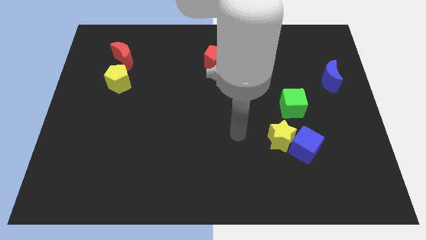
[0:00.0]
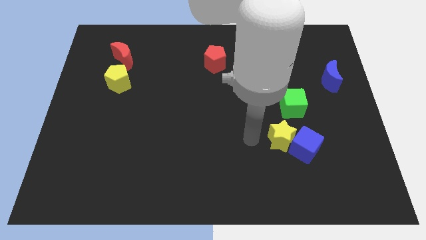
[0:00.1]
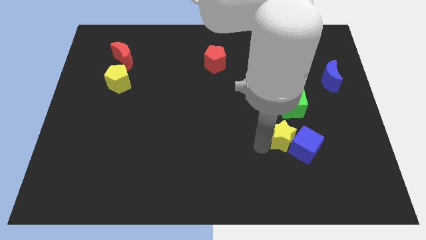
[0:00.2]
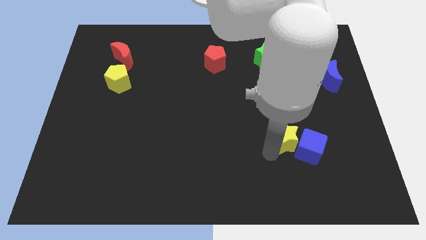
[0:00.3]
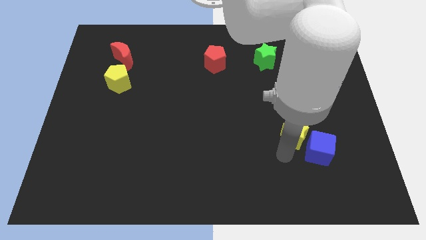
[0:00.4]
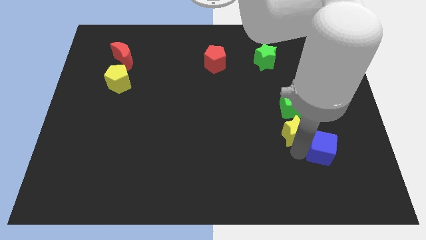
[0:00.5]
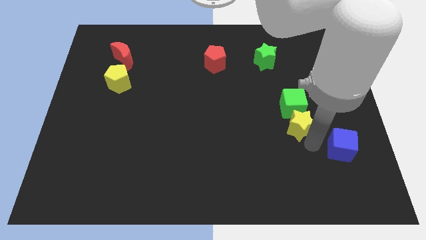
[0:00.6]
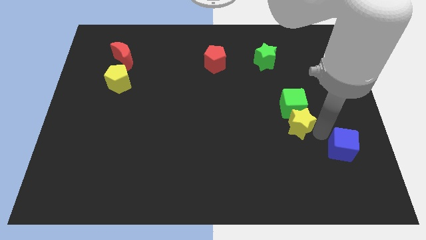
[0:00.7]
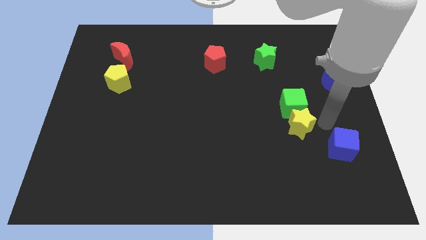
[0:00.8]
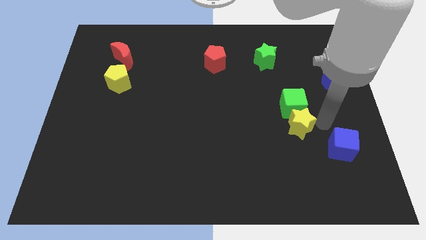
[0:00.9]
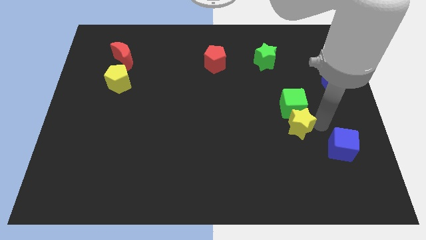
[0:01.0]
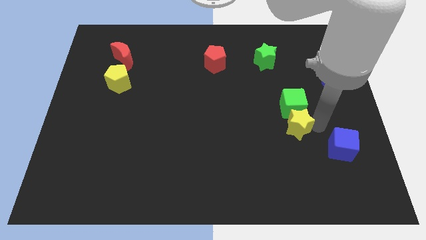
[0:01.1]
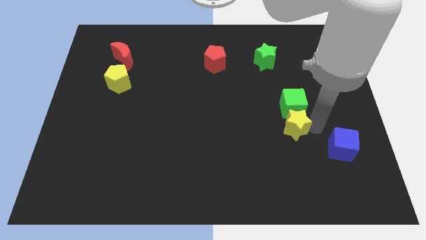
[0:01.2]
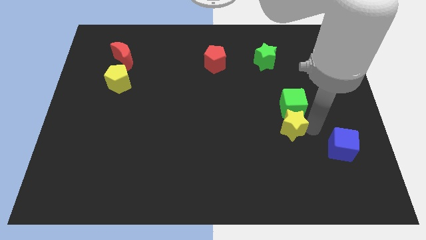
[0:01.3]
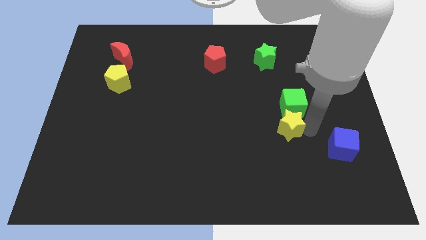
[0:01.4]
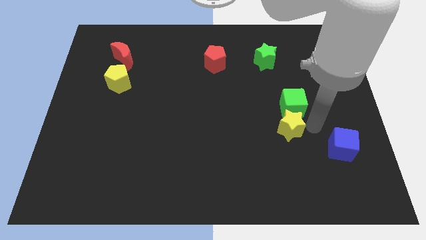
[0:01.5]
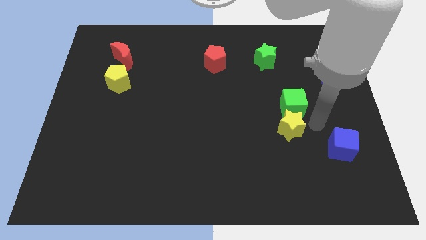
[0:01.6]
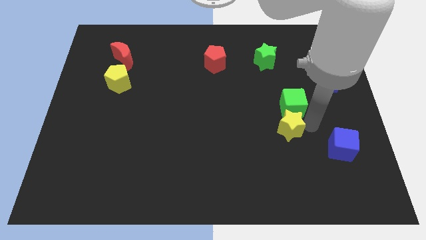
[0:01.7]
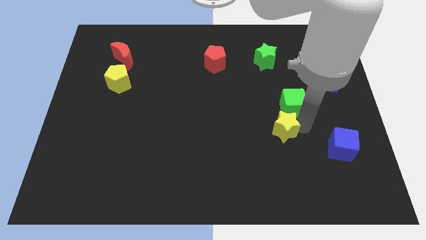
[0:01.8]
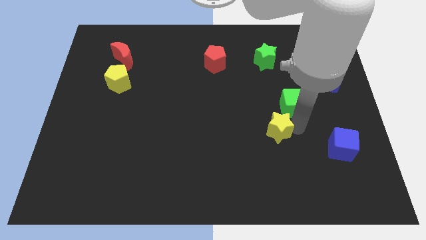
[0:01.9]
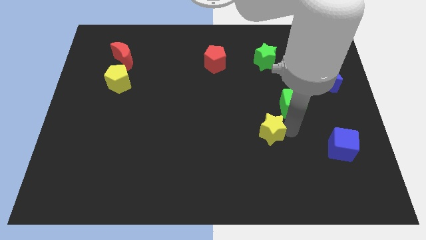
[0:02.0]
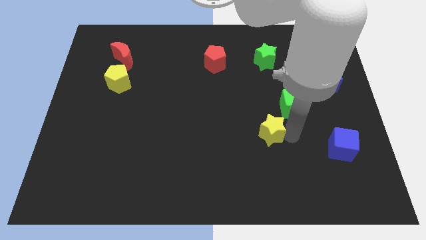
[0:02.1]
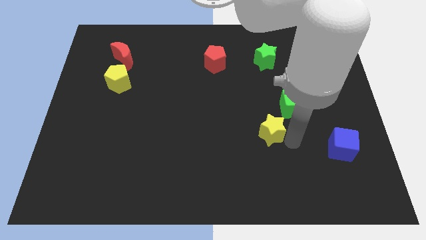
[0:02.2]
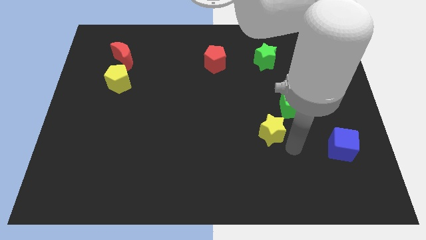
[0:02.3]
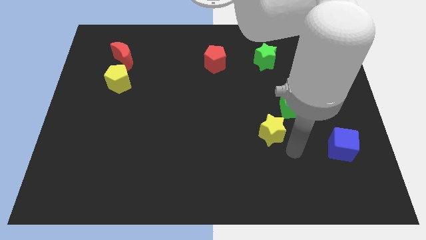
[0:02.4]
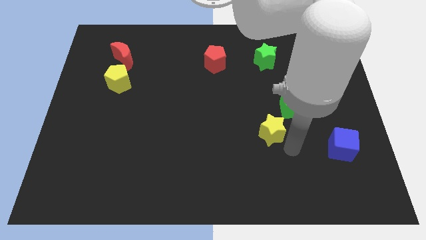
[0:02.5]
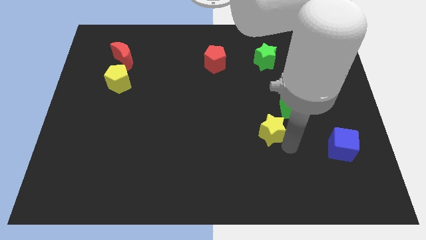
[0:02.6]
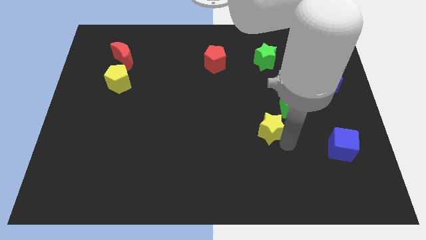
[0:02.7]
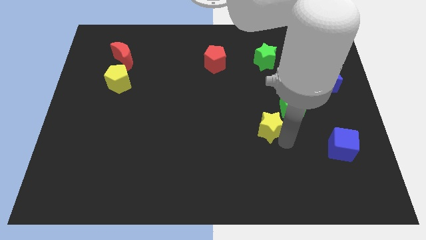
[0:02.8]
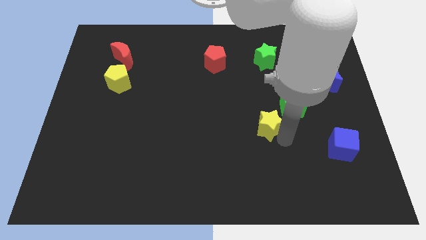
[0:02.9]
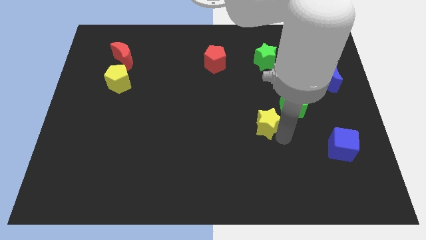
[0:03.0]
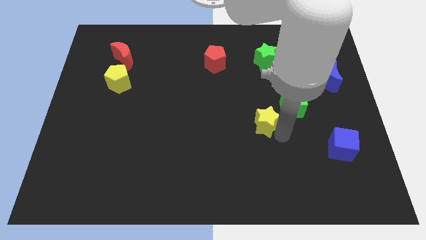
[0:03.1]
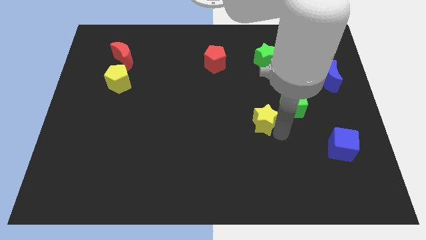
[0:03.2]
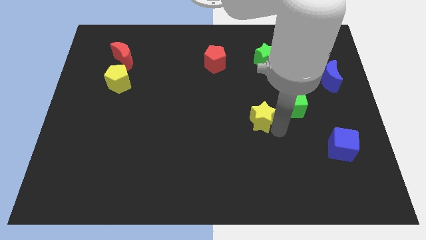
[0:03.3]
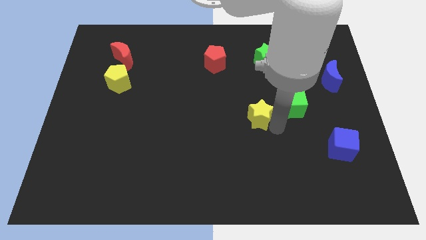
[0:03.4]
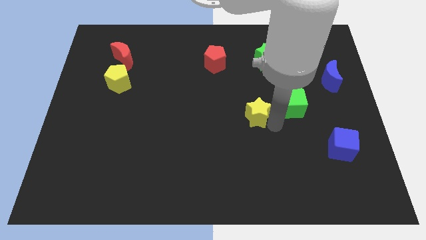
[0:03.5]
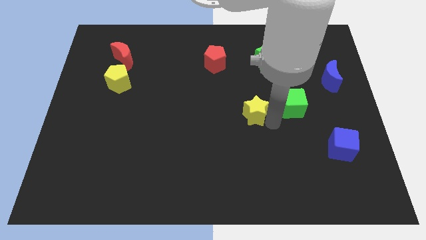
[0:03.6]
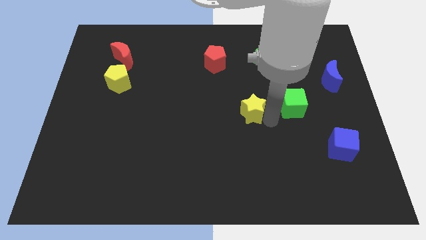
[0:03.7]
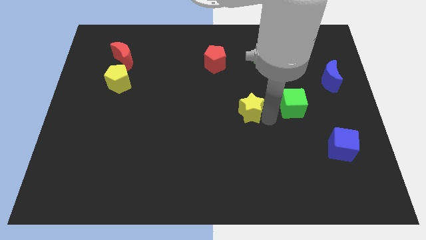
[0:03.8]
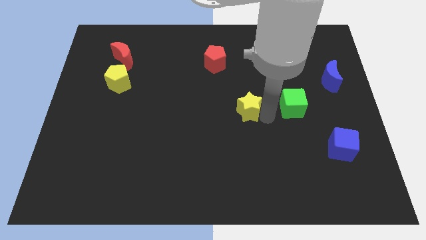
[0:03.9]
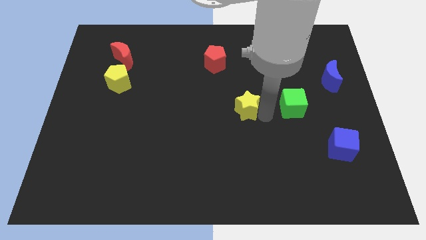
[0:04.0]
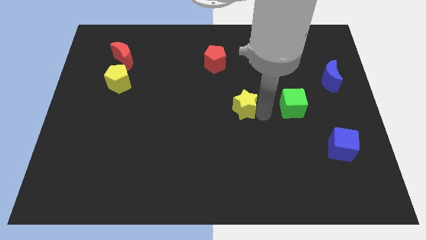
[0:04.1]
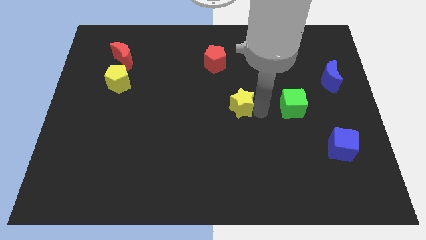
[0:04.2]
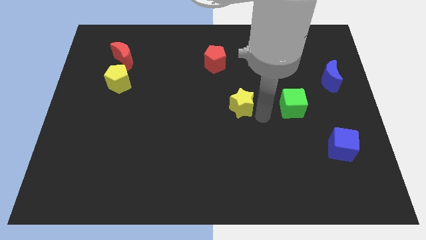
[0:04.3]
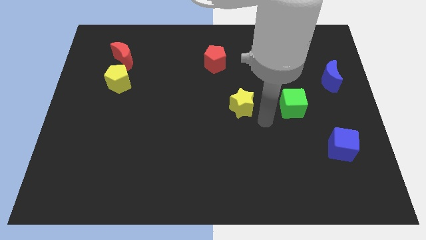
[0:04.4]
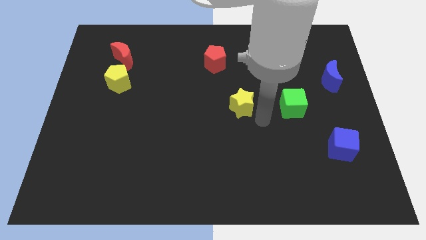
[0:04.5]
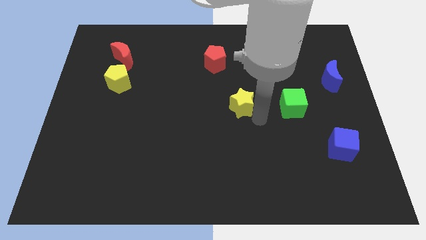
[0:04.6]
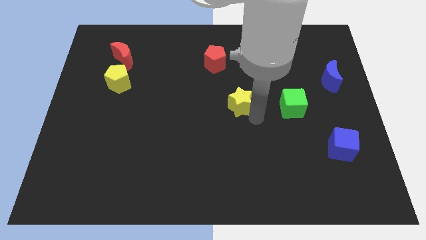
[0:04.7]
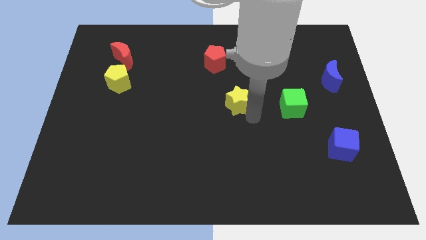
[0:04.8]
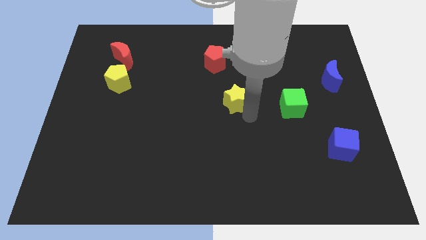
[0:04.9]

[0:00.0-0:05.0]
put the yellow star to the bottom side of the red pentagon

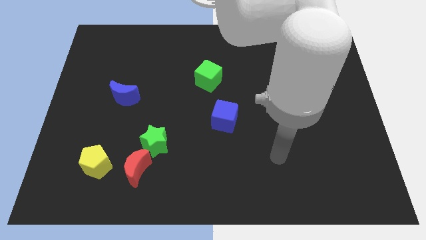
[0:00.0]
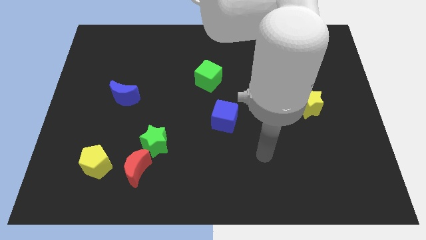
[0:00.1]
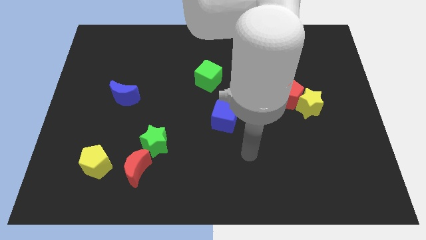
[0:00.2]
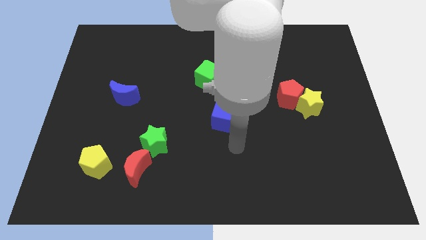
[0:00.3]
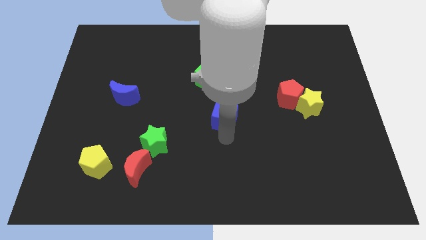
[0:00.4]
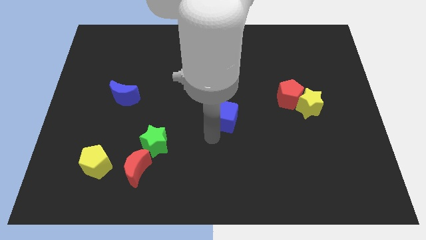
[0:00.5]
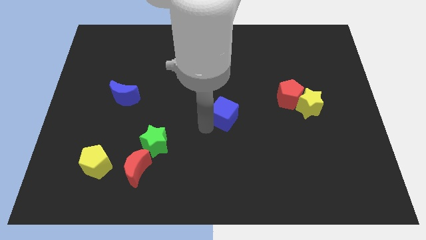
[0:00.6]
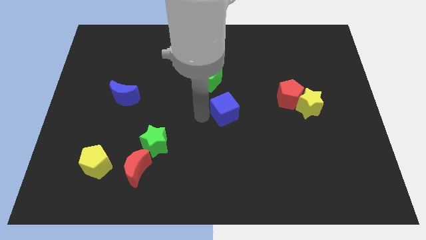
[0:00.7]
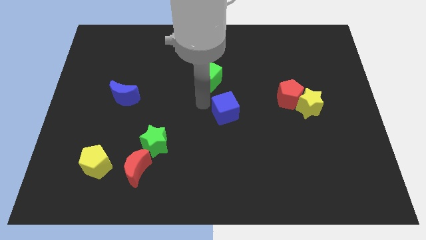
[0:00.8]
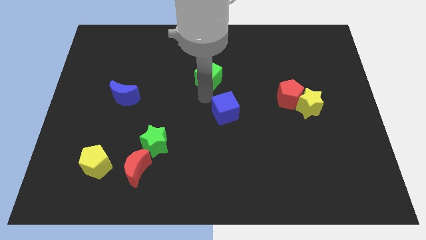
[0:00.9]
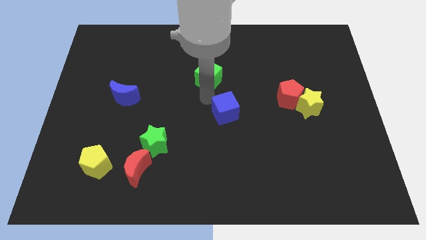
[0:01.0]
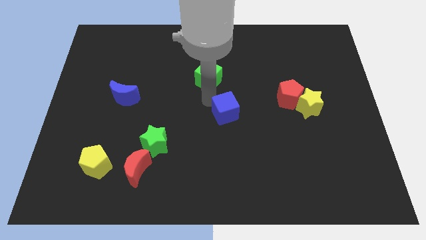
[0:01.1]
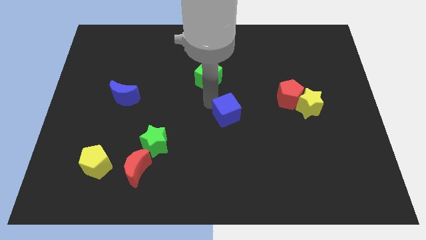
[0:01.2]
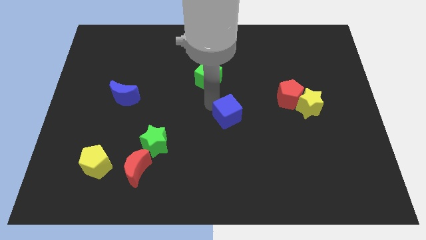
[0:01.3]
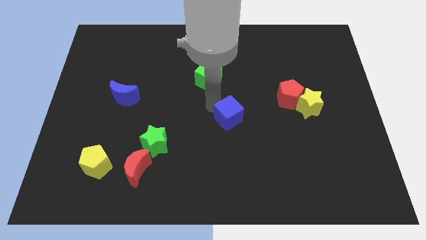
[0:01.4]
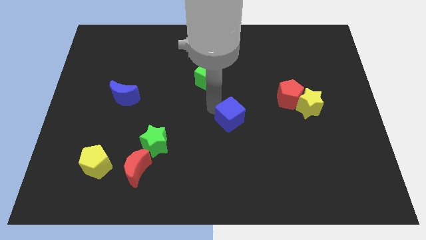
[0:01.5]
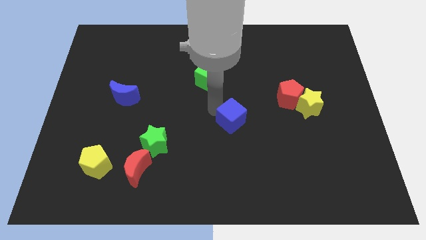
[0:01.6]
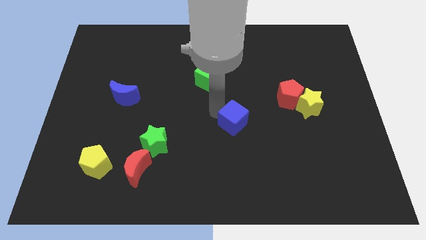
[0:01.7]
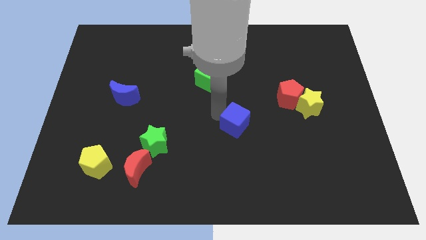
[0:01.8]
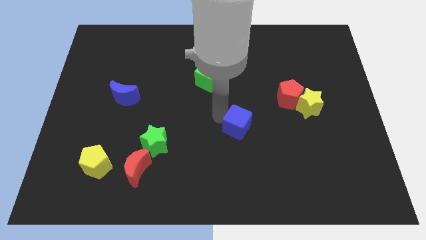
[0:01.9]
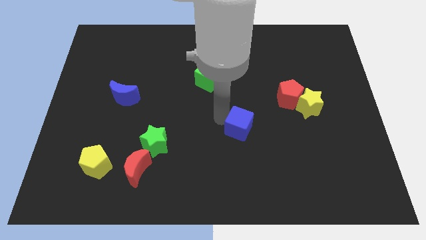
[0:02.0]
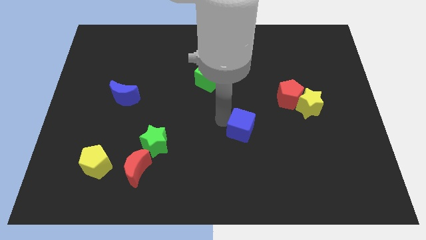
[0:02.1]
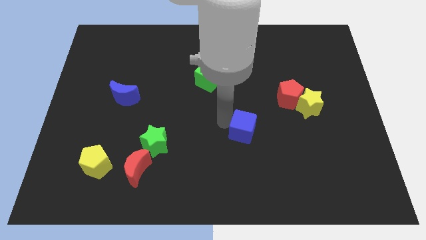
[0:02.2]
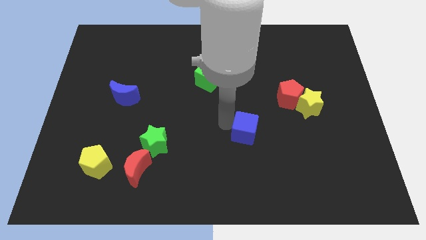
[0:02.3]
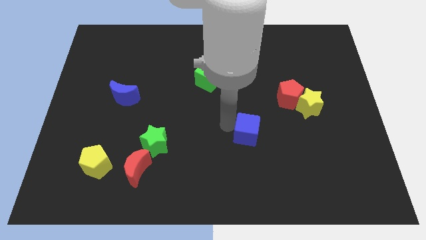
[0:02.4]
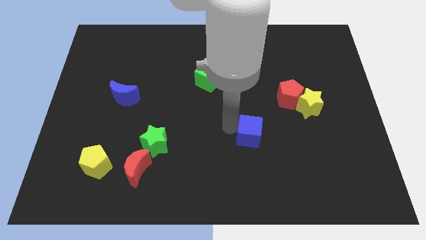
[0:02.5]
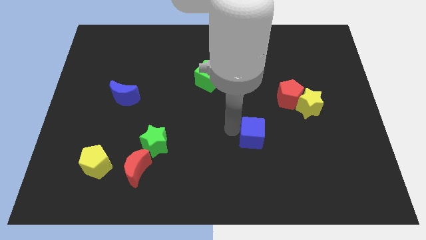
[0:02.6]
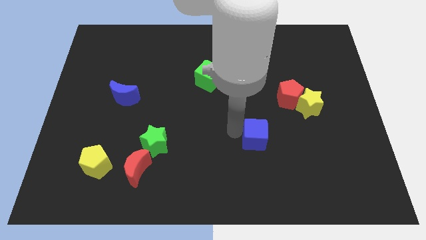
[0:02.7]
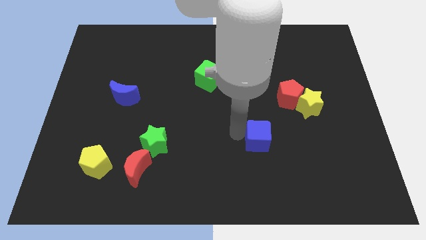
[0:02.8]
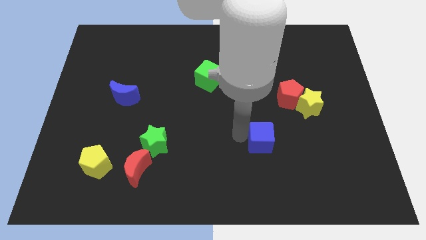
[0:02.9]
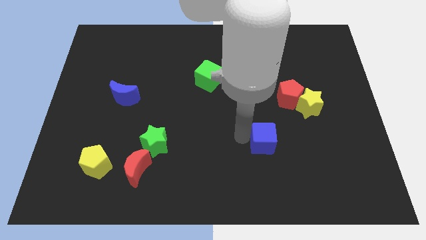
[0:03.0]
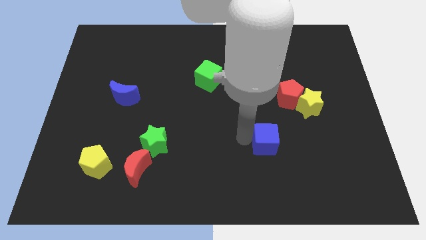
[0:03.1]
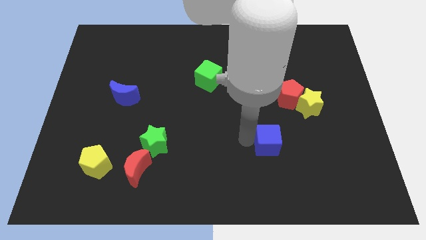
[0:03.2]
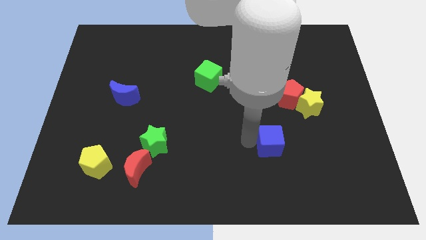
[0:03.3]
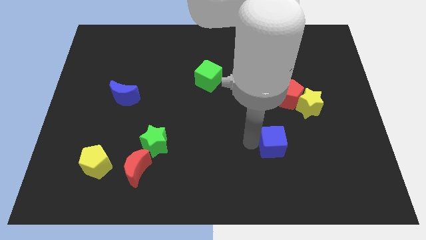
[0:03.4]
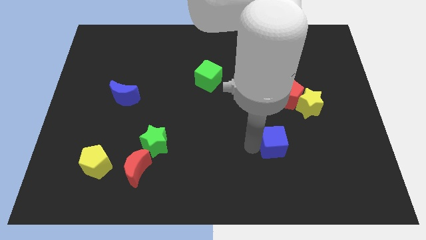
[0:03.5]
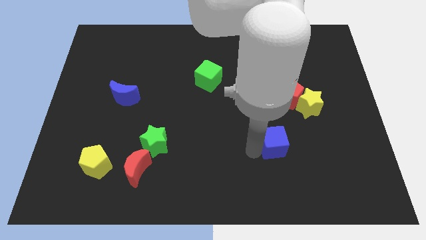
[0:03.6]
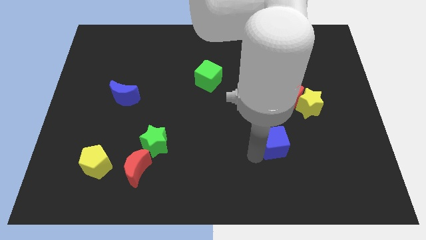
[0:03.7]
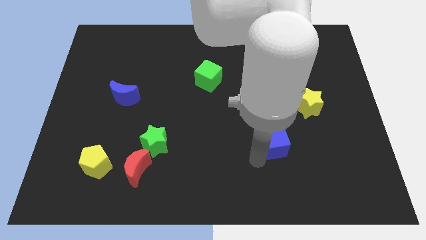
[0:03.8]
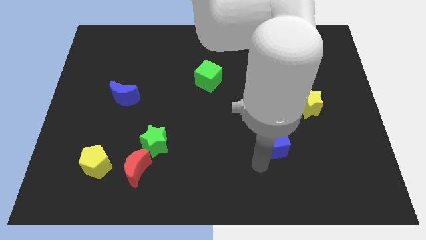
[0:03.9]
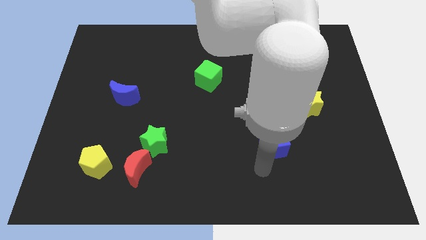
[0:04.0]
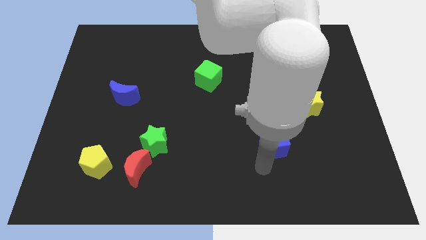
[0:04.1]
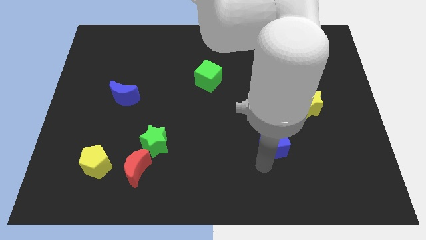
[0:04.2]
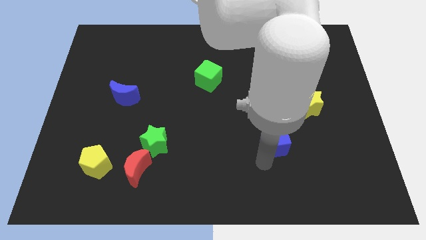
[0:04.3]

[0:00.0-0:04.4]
push the blue cube below the red pentagon
